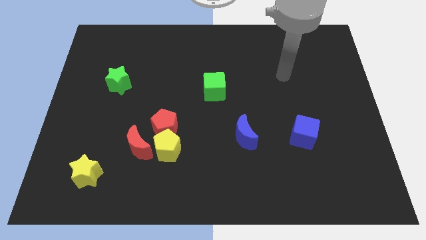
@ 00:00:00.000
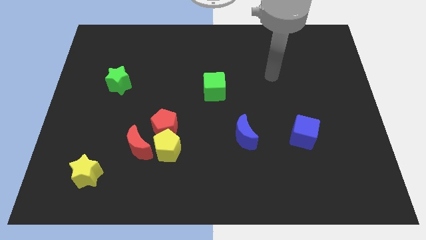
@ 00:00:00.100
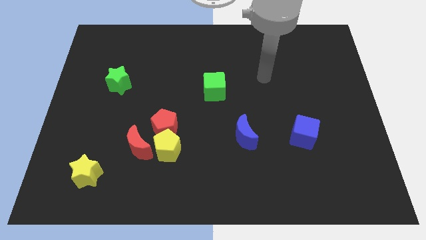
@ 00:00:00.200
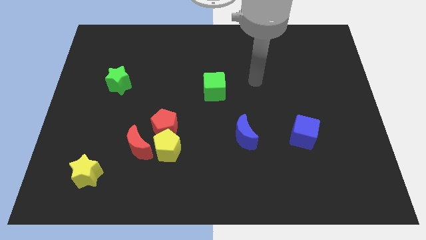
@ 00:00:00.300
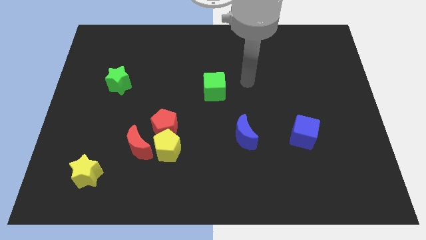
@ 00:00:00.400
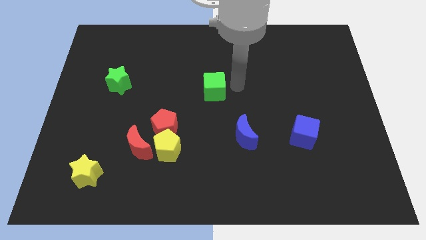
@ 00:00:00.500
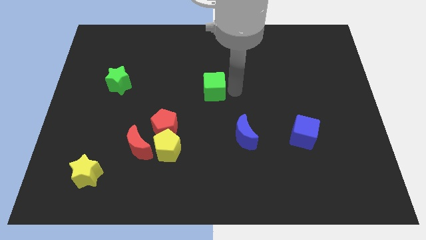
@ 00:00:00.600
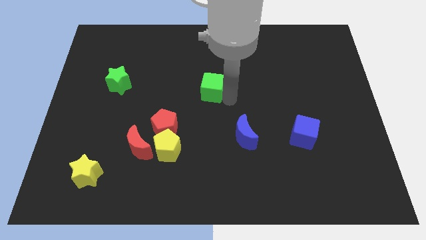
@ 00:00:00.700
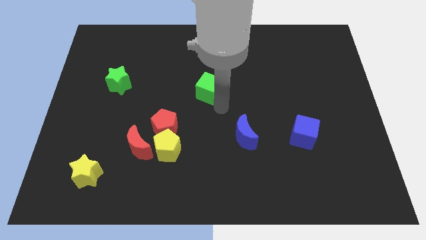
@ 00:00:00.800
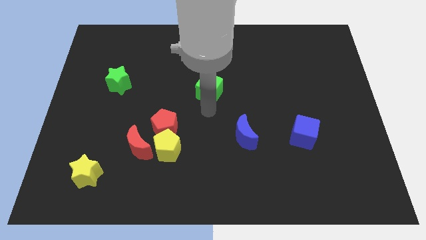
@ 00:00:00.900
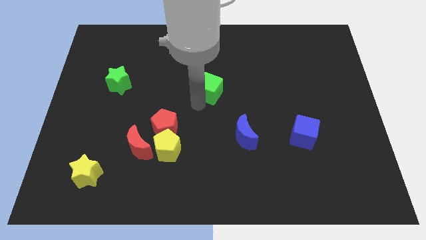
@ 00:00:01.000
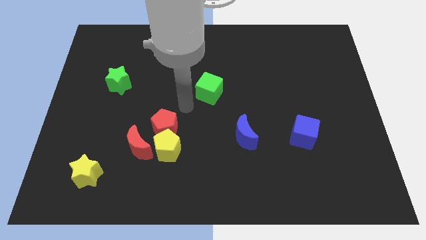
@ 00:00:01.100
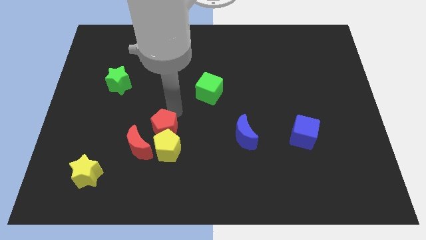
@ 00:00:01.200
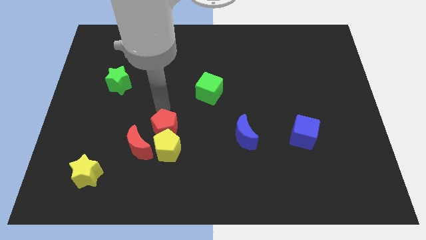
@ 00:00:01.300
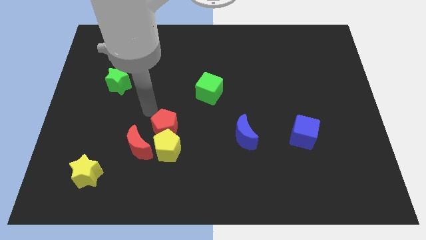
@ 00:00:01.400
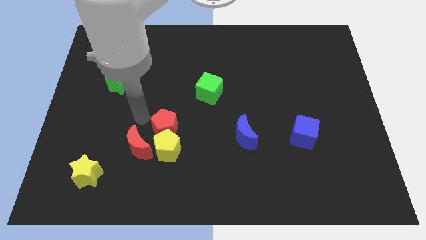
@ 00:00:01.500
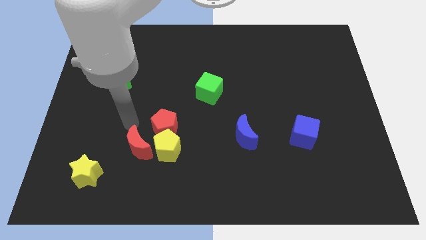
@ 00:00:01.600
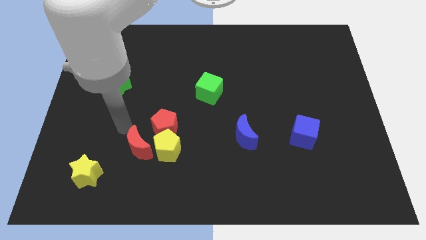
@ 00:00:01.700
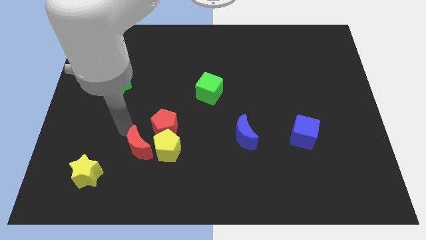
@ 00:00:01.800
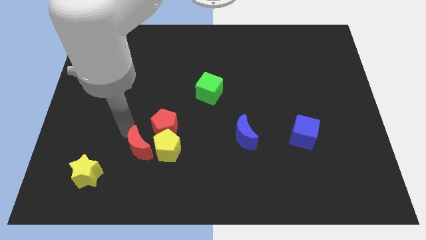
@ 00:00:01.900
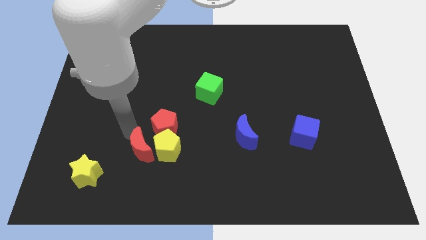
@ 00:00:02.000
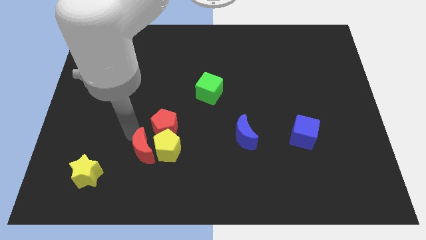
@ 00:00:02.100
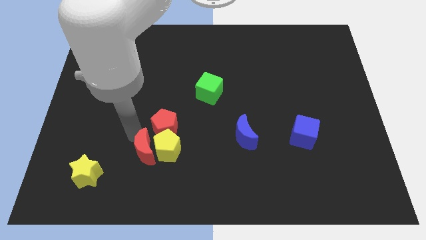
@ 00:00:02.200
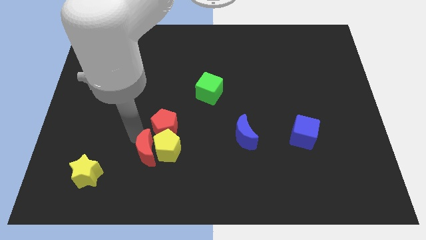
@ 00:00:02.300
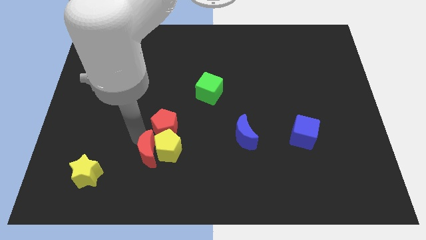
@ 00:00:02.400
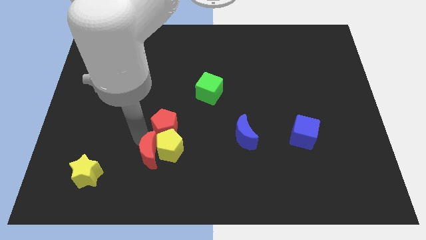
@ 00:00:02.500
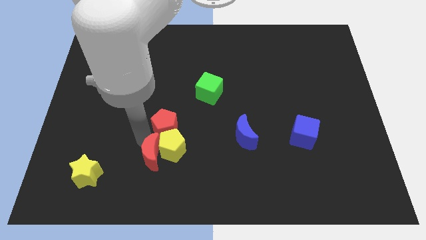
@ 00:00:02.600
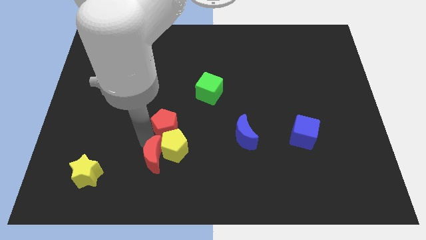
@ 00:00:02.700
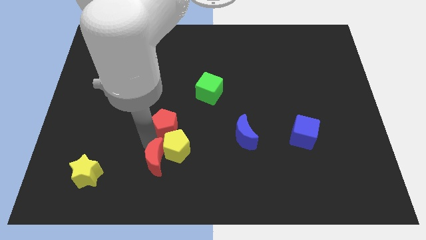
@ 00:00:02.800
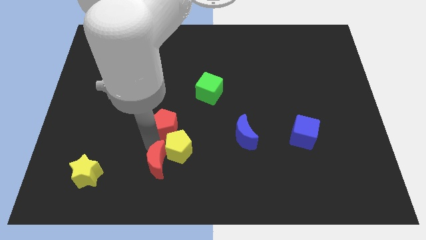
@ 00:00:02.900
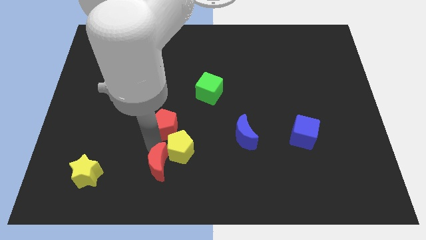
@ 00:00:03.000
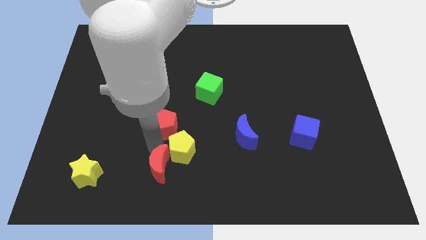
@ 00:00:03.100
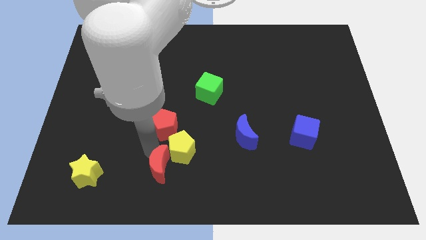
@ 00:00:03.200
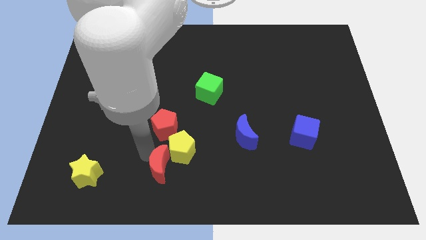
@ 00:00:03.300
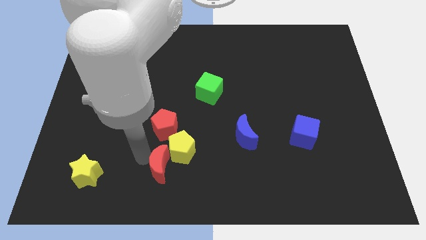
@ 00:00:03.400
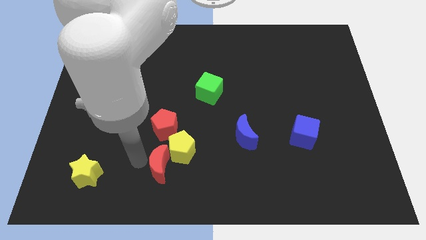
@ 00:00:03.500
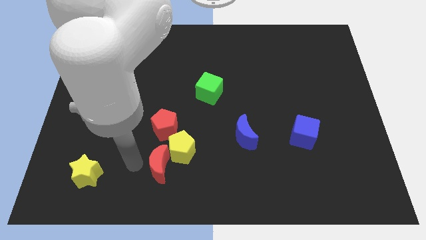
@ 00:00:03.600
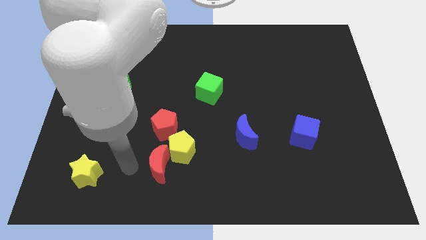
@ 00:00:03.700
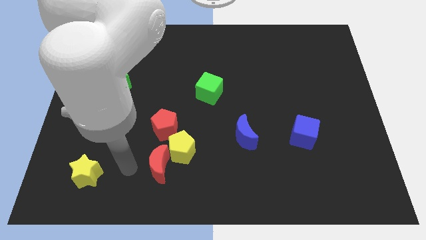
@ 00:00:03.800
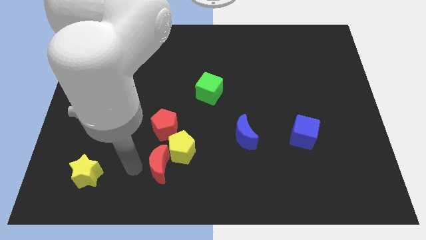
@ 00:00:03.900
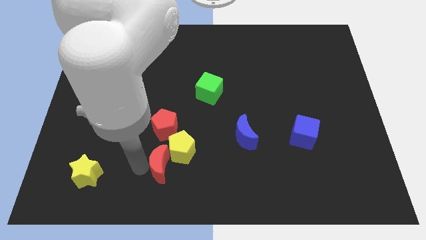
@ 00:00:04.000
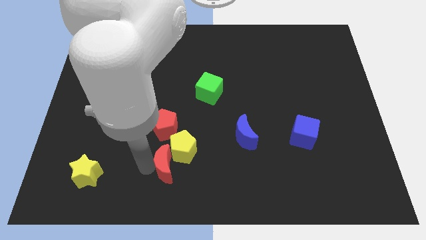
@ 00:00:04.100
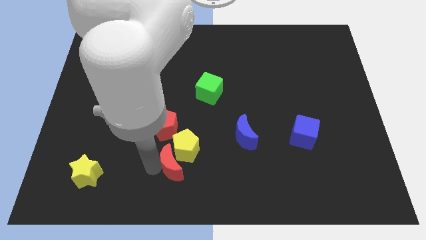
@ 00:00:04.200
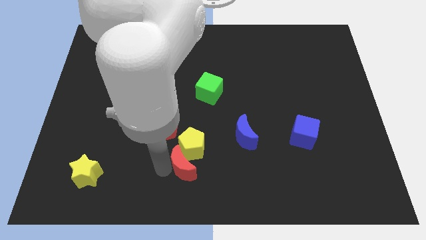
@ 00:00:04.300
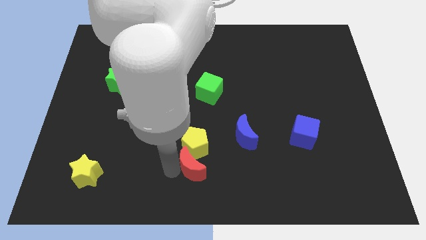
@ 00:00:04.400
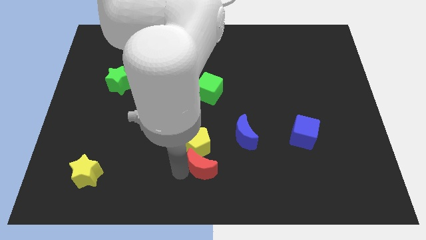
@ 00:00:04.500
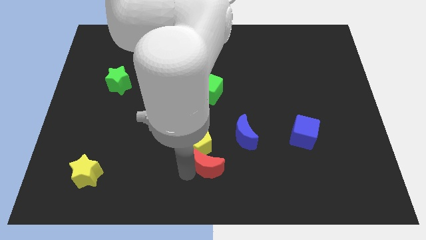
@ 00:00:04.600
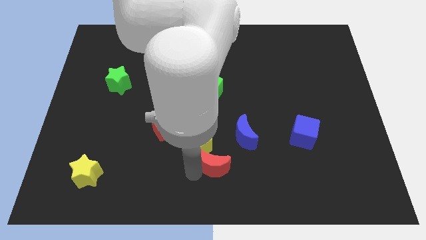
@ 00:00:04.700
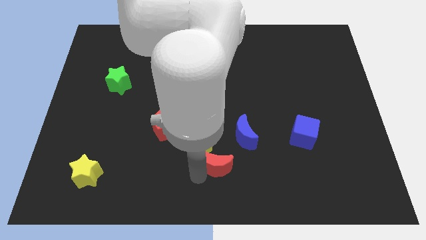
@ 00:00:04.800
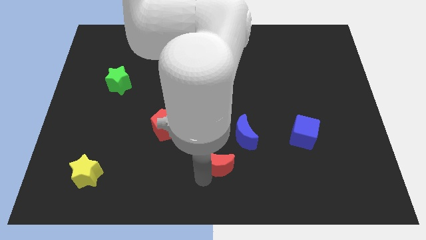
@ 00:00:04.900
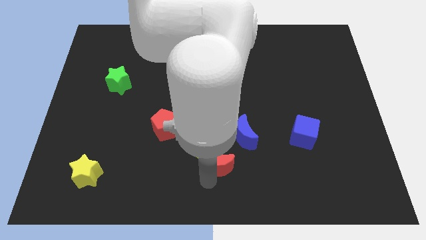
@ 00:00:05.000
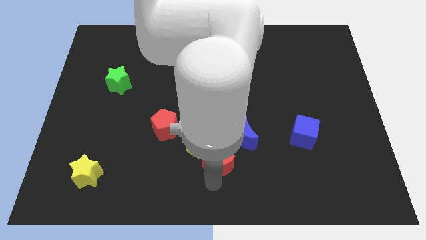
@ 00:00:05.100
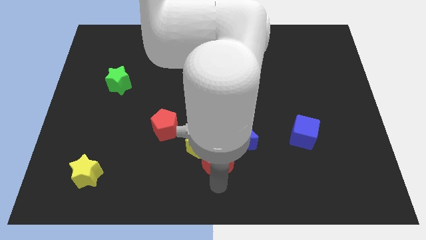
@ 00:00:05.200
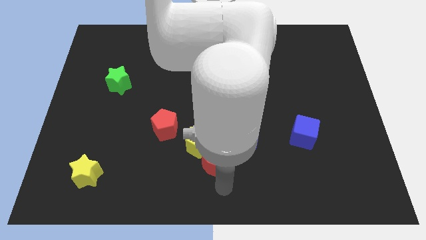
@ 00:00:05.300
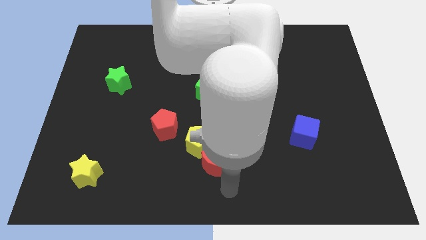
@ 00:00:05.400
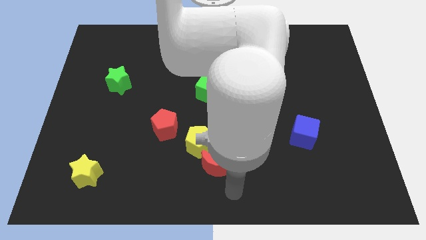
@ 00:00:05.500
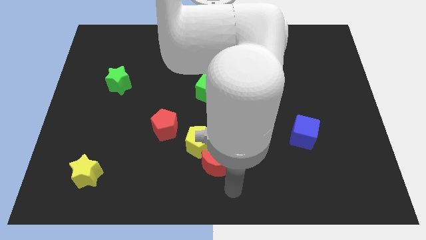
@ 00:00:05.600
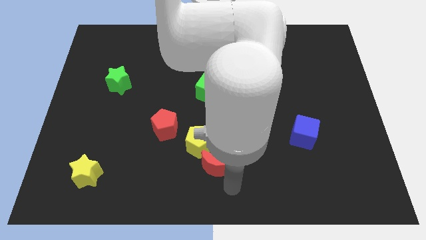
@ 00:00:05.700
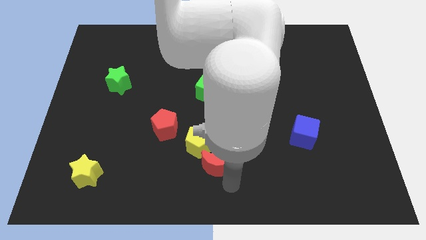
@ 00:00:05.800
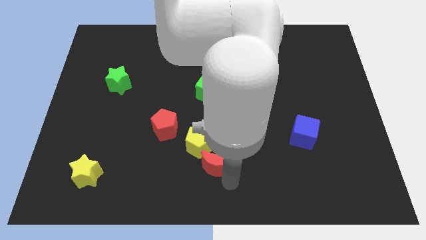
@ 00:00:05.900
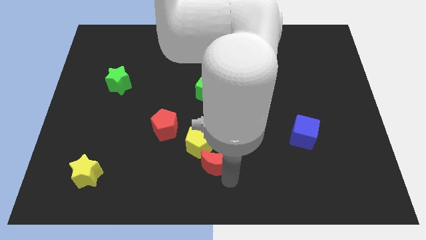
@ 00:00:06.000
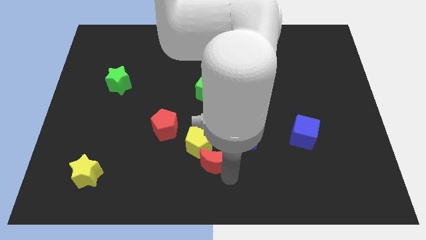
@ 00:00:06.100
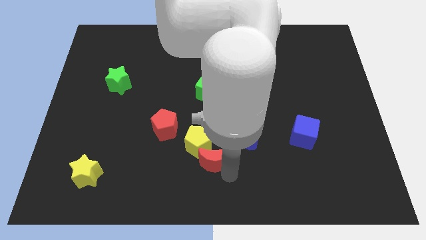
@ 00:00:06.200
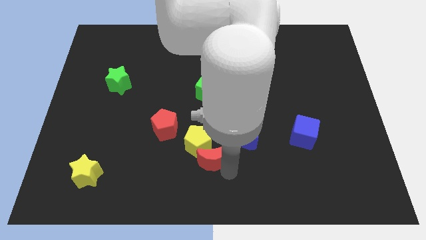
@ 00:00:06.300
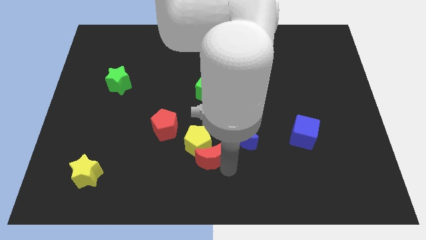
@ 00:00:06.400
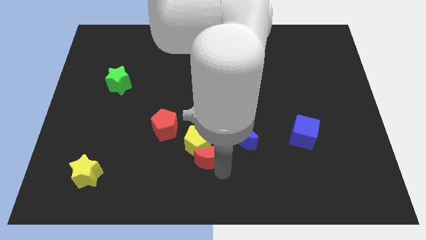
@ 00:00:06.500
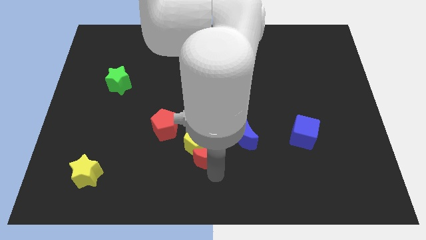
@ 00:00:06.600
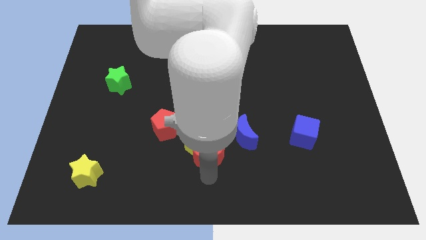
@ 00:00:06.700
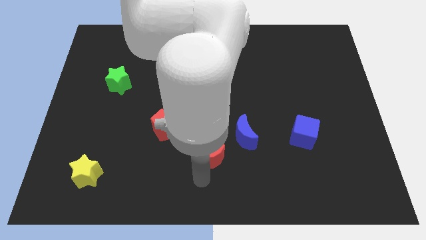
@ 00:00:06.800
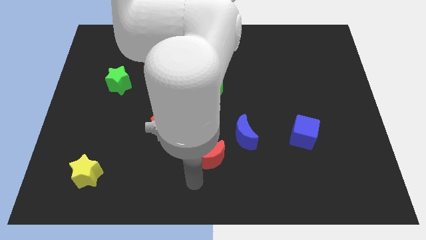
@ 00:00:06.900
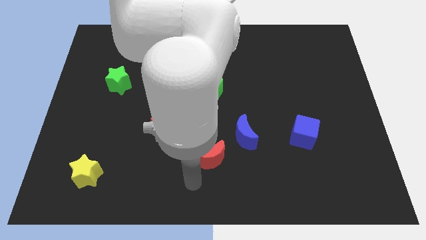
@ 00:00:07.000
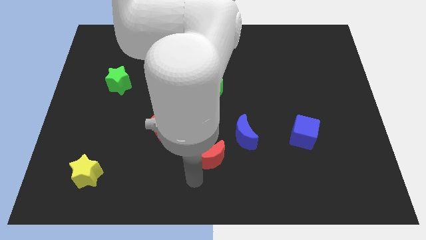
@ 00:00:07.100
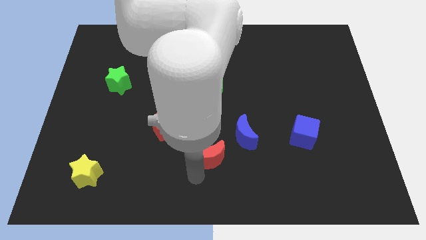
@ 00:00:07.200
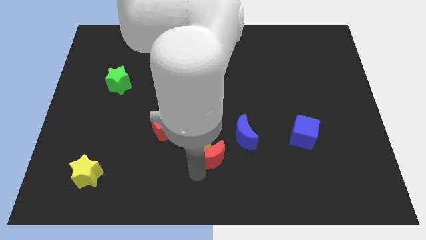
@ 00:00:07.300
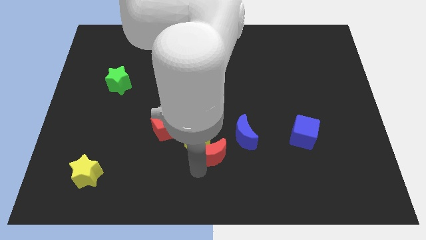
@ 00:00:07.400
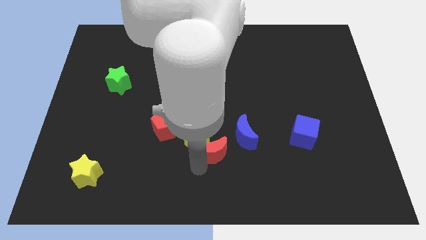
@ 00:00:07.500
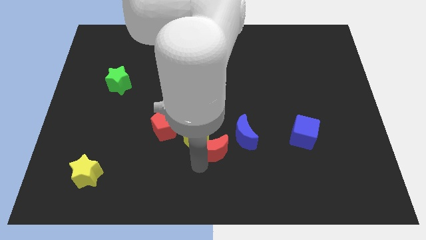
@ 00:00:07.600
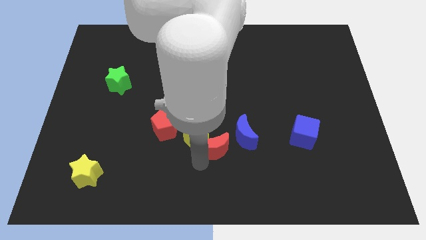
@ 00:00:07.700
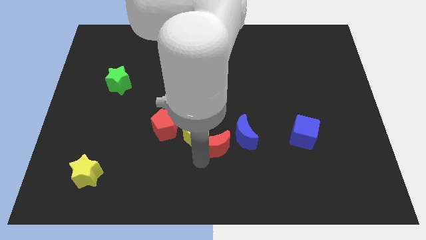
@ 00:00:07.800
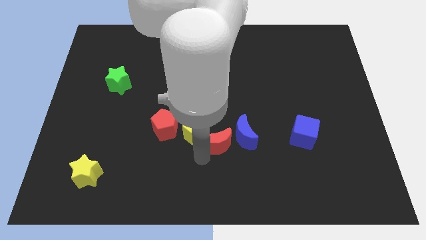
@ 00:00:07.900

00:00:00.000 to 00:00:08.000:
push the red moon towards the blue moon
